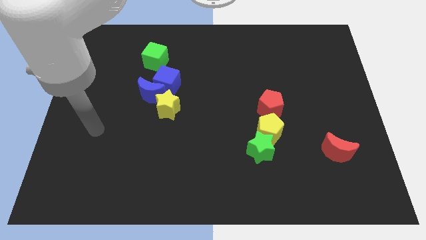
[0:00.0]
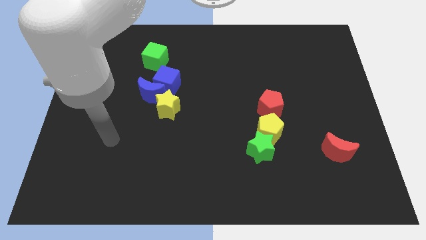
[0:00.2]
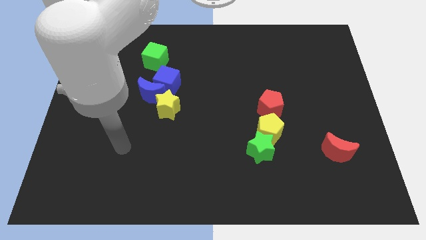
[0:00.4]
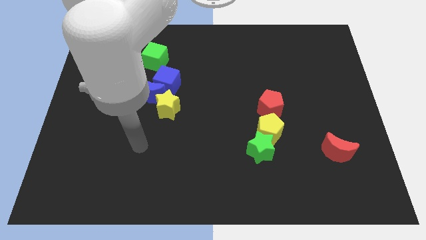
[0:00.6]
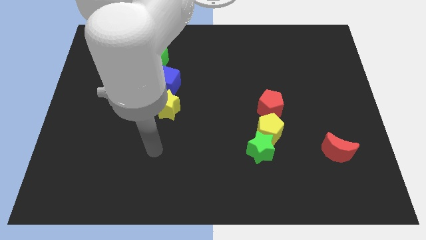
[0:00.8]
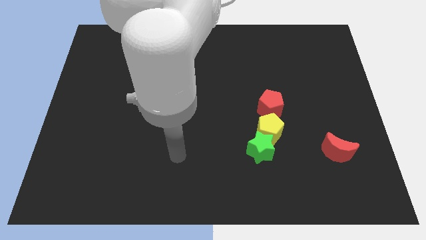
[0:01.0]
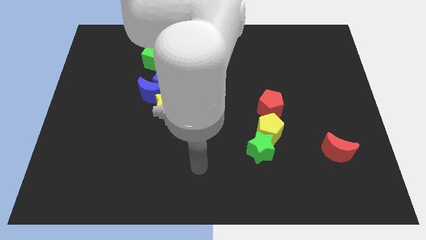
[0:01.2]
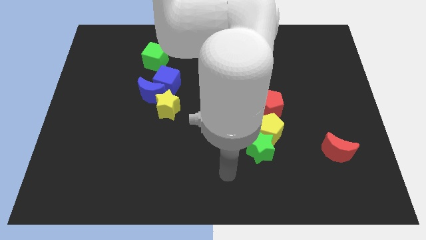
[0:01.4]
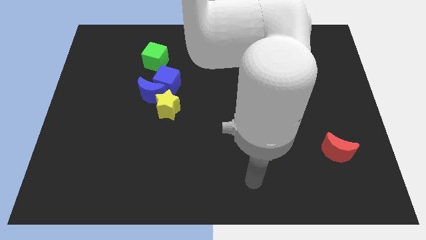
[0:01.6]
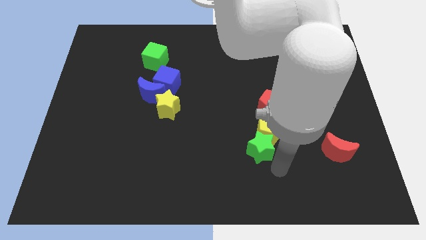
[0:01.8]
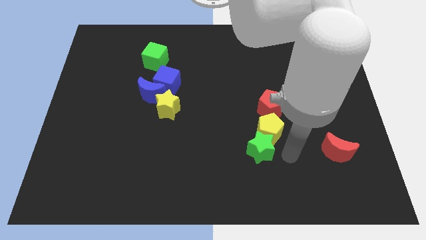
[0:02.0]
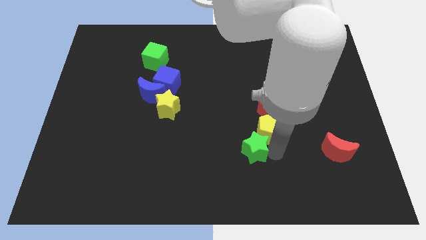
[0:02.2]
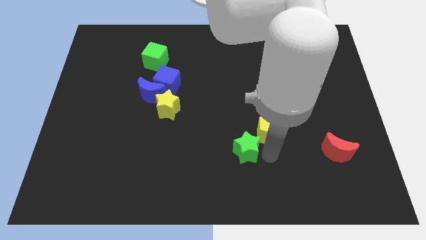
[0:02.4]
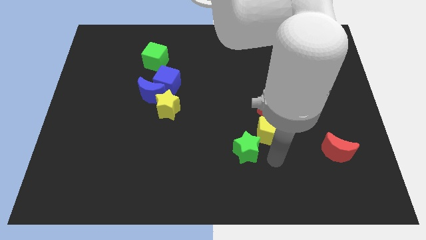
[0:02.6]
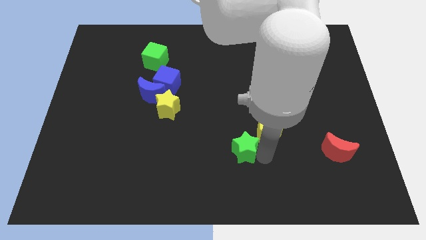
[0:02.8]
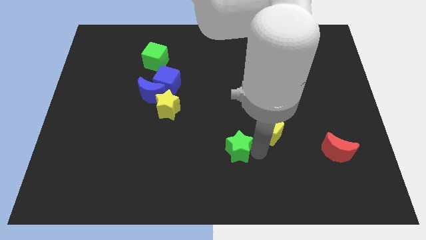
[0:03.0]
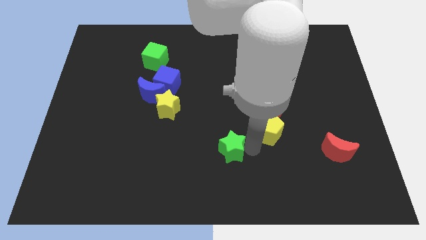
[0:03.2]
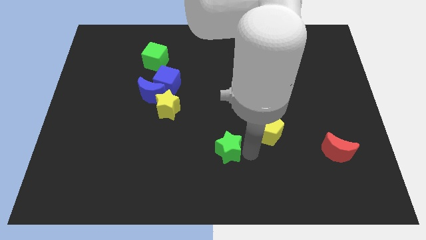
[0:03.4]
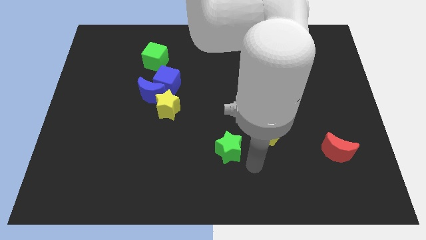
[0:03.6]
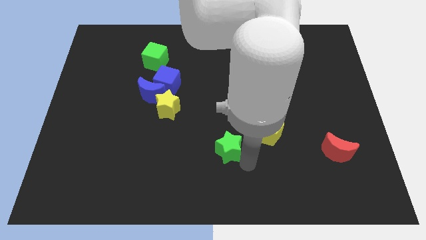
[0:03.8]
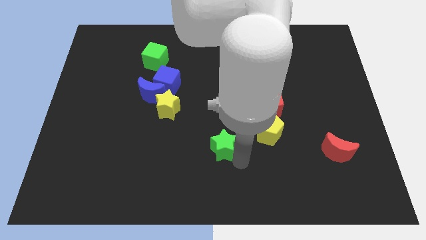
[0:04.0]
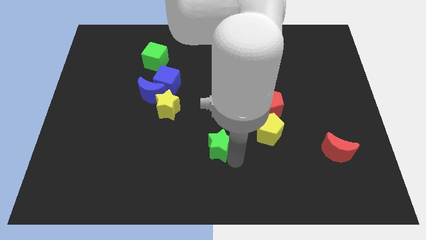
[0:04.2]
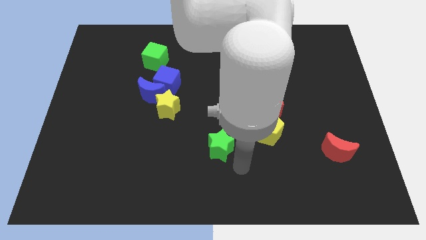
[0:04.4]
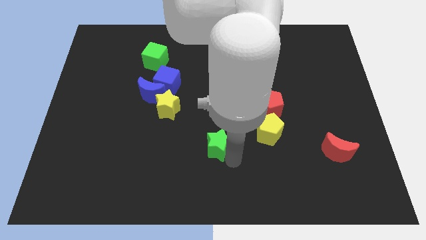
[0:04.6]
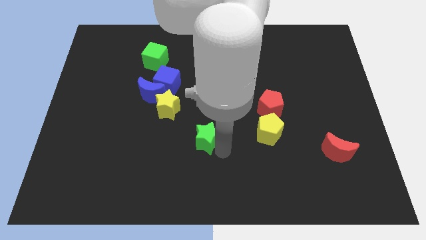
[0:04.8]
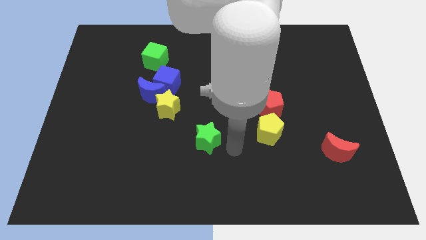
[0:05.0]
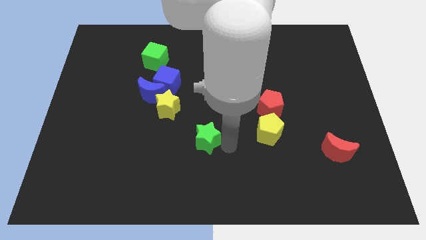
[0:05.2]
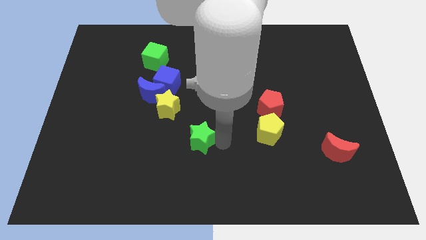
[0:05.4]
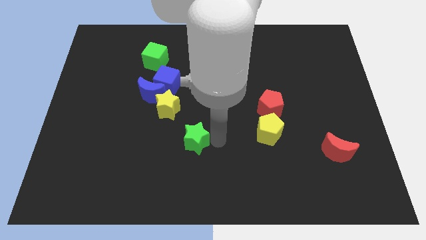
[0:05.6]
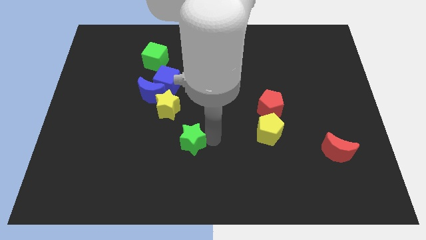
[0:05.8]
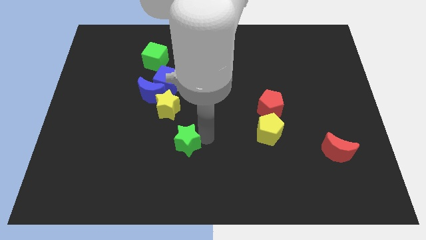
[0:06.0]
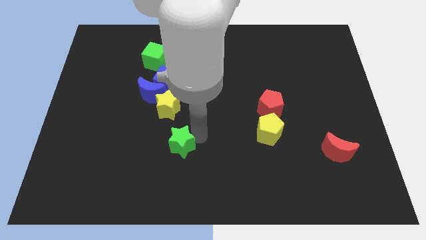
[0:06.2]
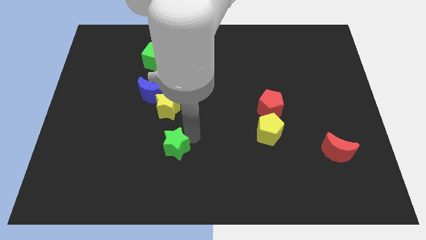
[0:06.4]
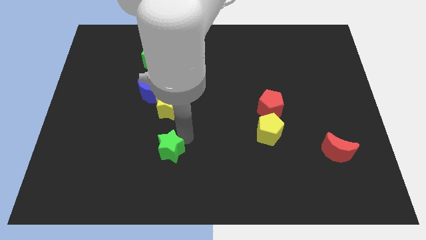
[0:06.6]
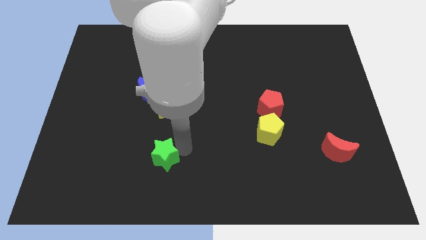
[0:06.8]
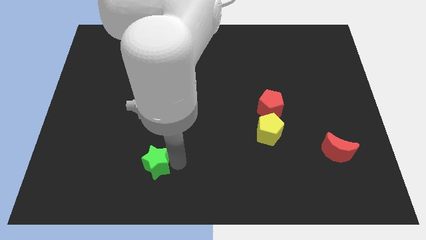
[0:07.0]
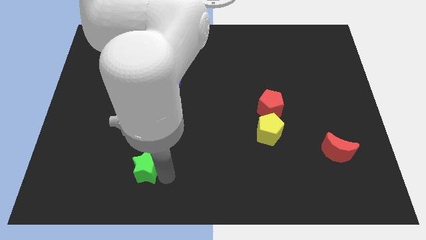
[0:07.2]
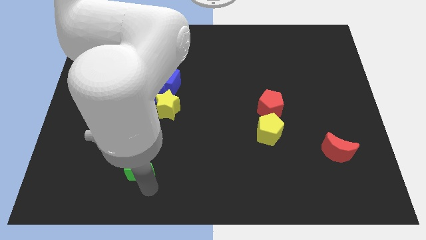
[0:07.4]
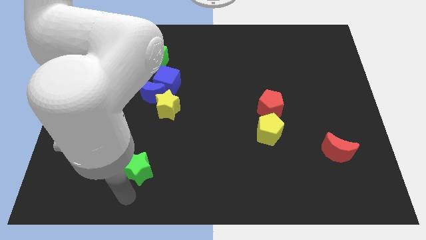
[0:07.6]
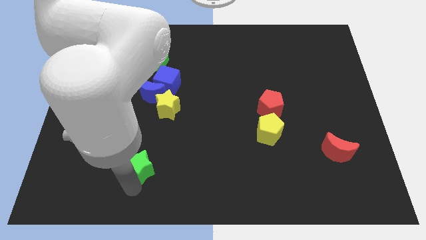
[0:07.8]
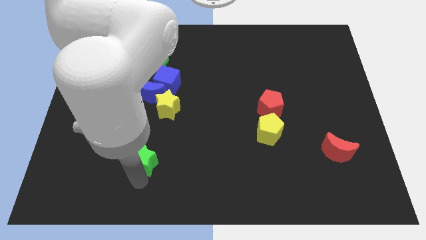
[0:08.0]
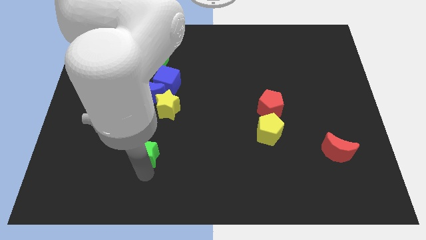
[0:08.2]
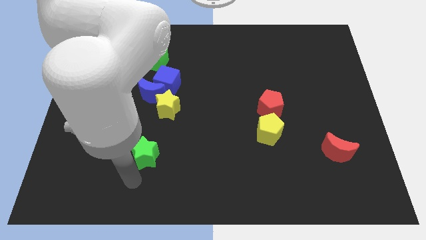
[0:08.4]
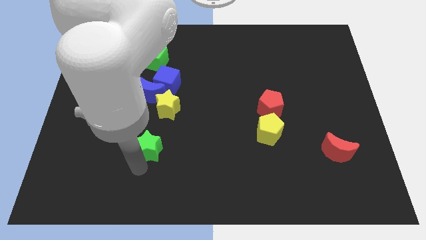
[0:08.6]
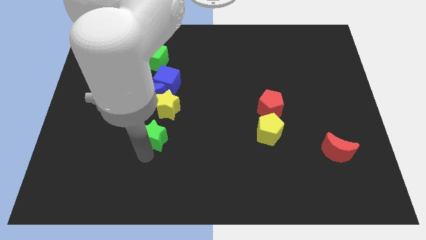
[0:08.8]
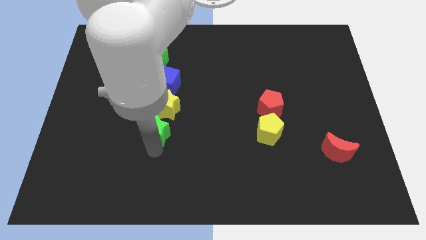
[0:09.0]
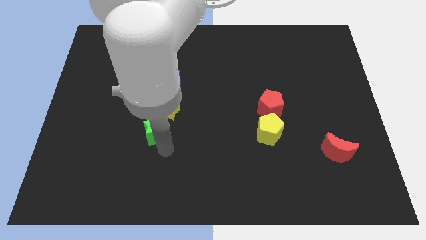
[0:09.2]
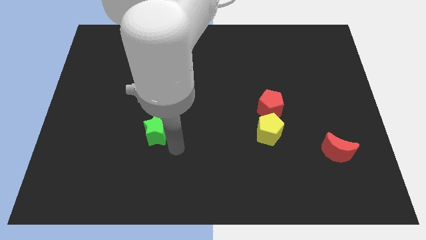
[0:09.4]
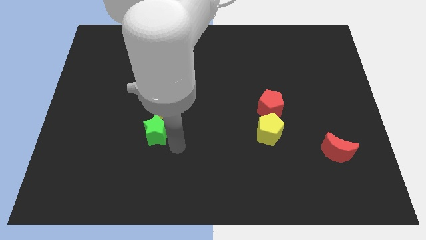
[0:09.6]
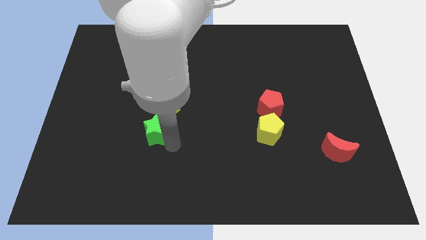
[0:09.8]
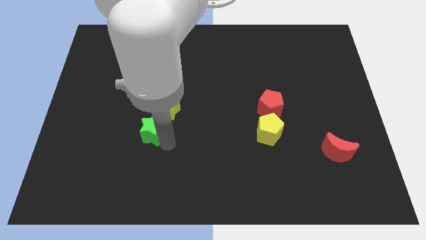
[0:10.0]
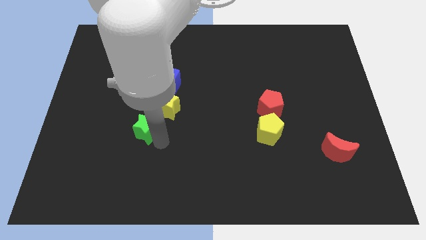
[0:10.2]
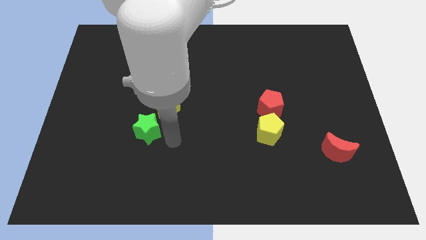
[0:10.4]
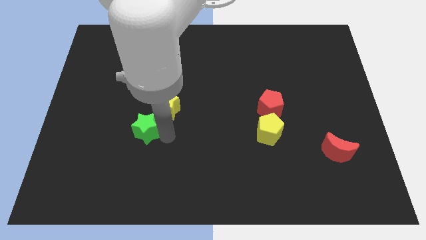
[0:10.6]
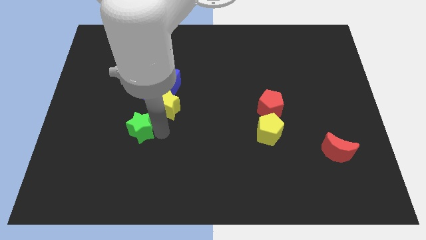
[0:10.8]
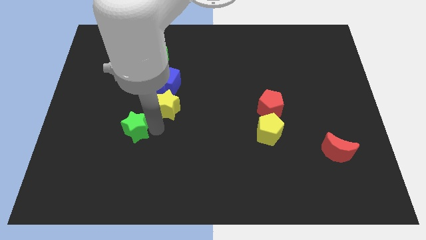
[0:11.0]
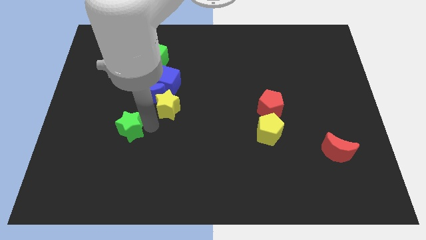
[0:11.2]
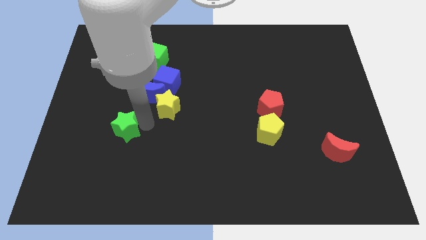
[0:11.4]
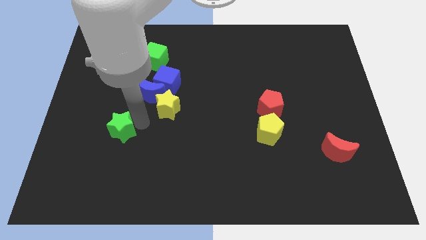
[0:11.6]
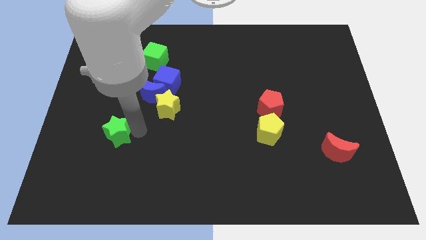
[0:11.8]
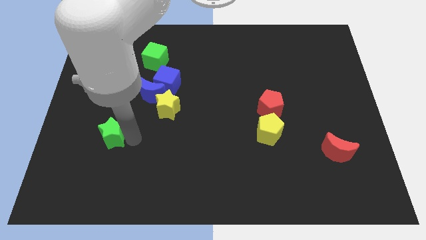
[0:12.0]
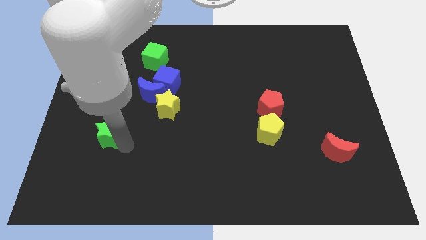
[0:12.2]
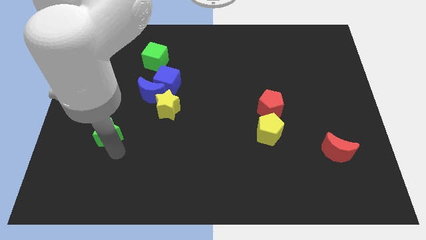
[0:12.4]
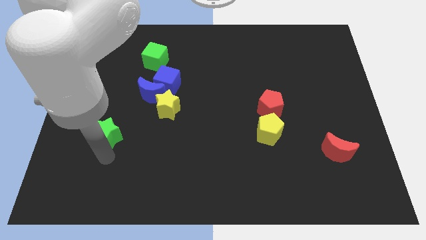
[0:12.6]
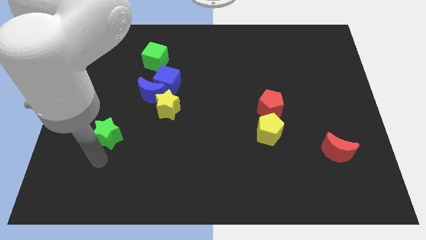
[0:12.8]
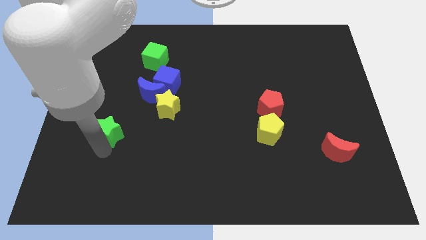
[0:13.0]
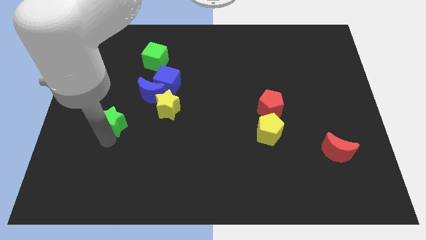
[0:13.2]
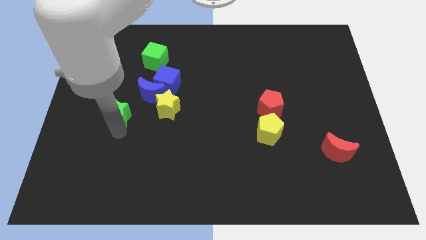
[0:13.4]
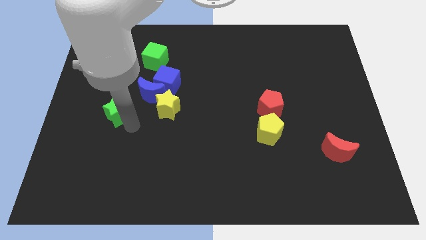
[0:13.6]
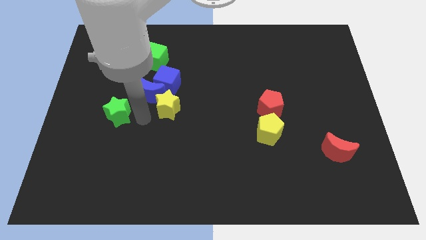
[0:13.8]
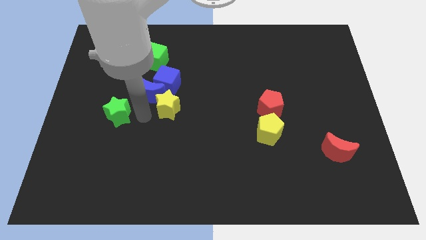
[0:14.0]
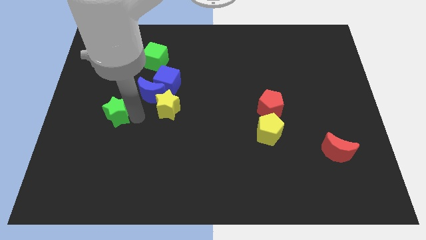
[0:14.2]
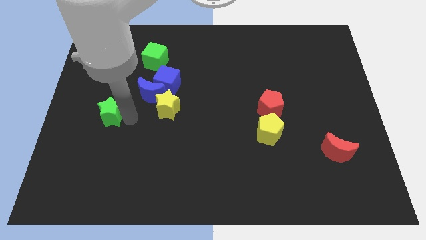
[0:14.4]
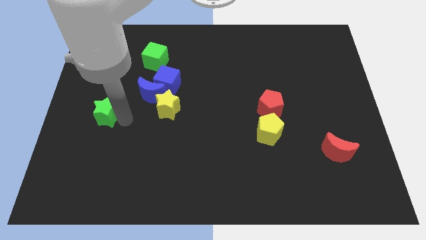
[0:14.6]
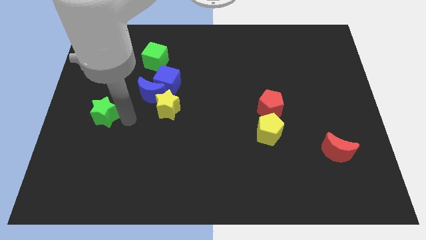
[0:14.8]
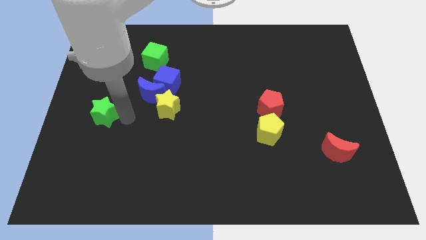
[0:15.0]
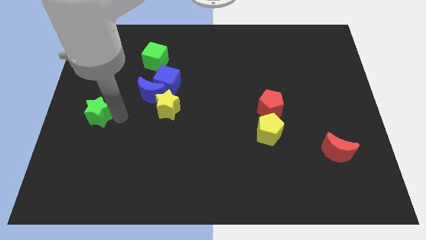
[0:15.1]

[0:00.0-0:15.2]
push the green star to the left side of the board
